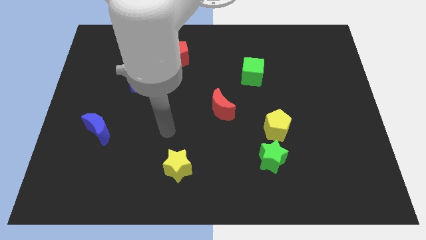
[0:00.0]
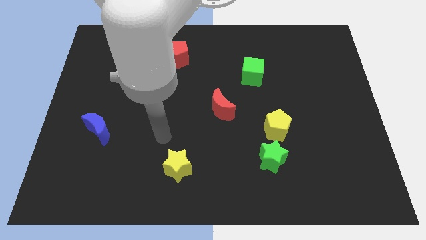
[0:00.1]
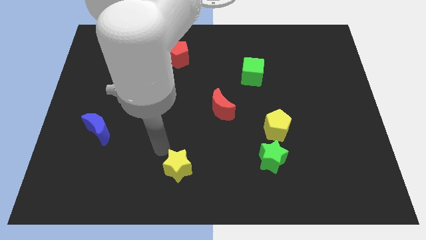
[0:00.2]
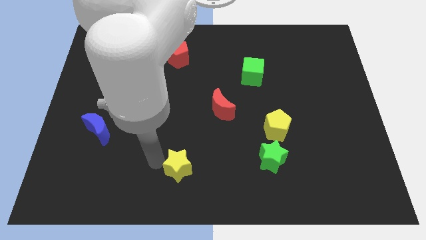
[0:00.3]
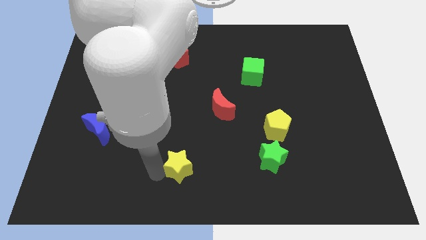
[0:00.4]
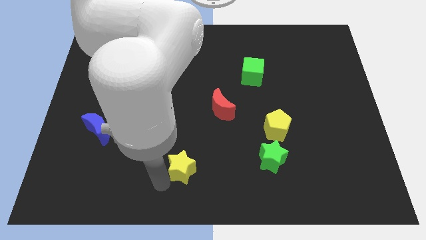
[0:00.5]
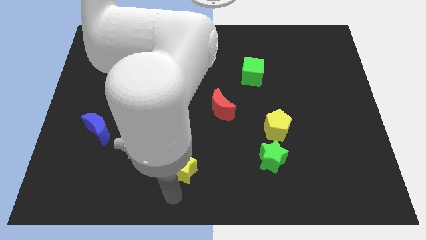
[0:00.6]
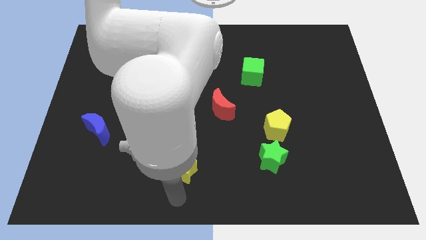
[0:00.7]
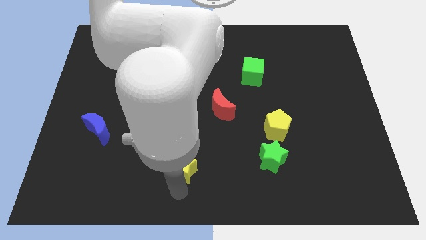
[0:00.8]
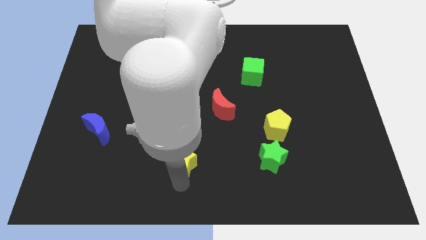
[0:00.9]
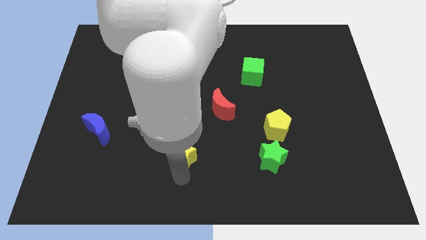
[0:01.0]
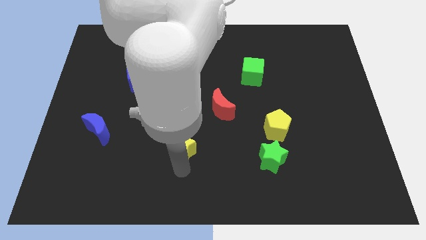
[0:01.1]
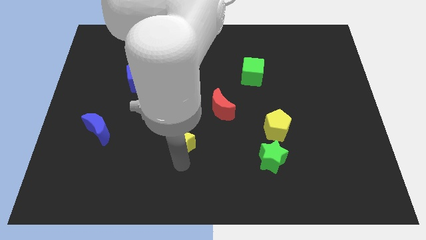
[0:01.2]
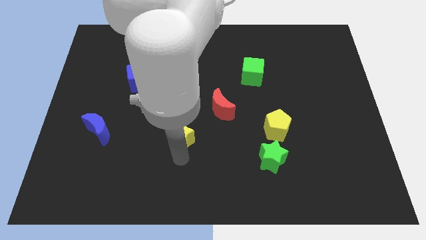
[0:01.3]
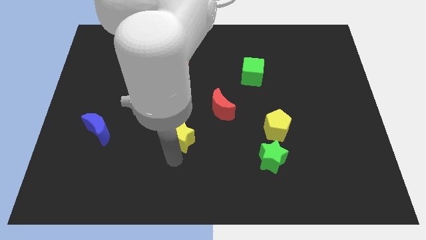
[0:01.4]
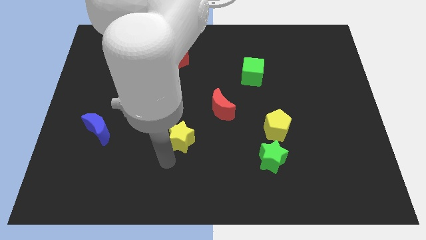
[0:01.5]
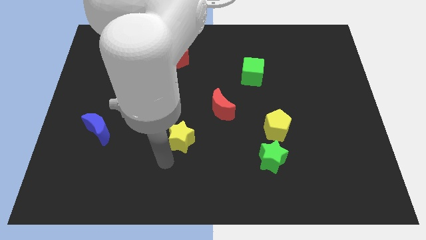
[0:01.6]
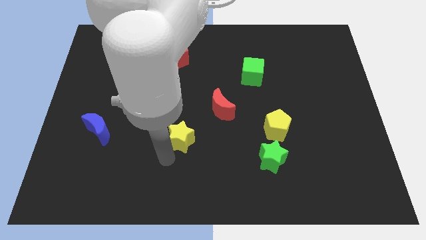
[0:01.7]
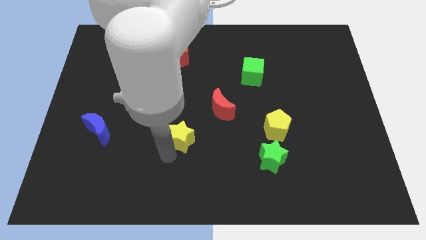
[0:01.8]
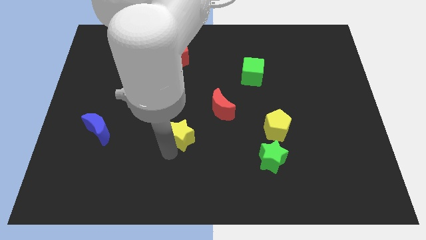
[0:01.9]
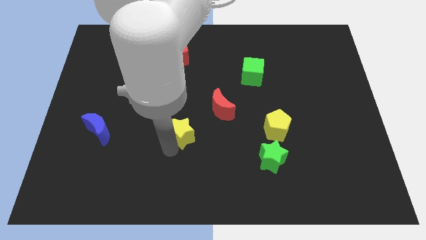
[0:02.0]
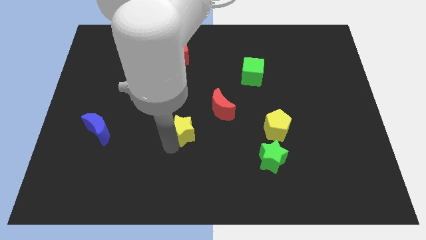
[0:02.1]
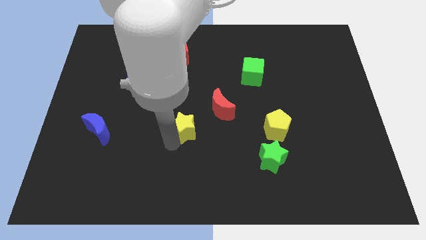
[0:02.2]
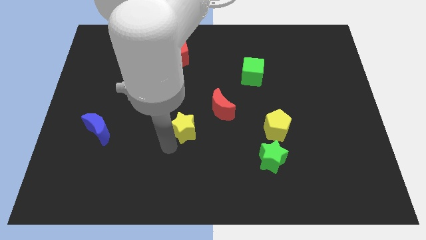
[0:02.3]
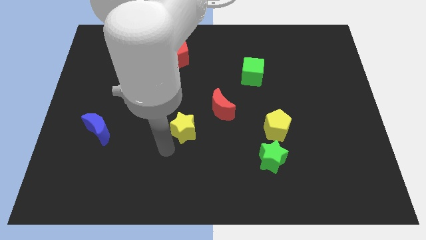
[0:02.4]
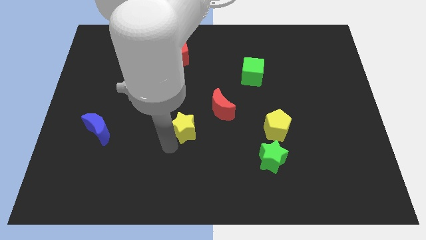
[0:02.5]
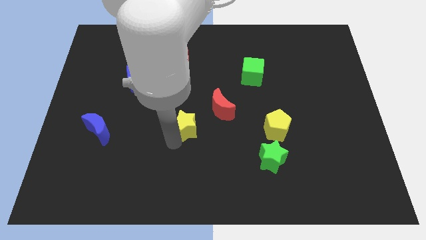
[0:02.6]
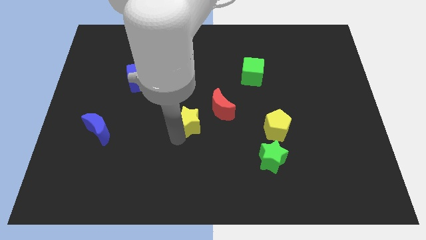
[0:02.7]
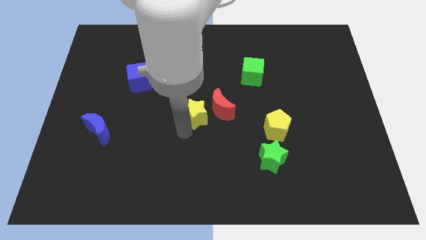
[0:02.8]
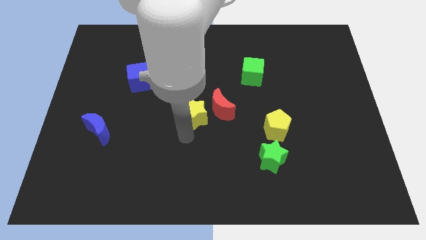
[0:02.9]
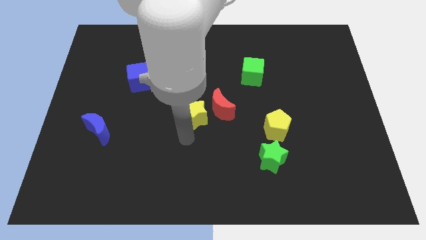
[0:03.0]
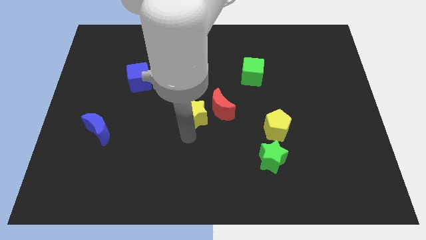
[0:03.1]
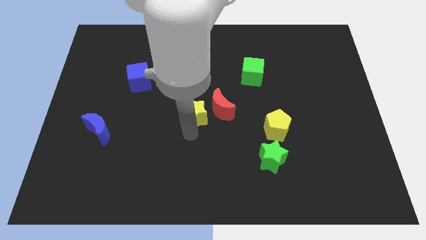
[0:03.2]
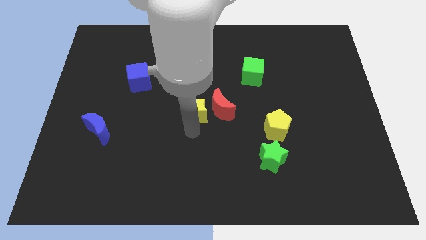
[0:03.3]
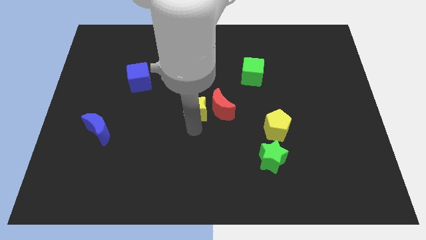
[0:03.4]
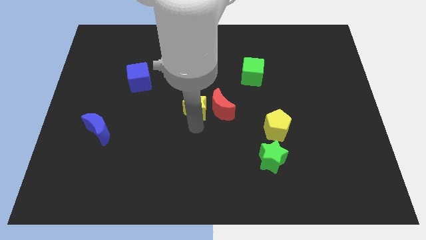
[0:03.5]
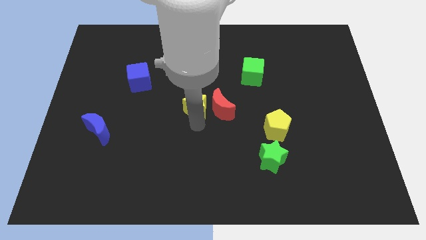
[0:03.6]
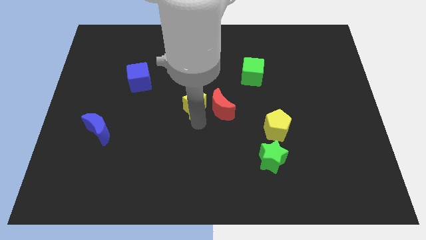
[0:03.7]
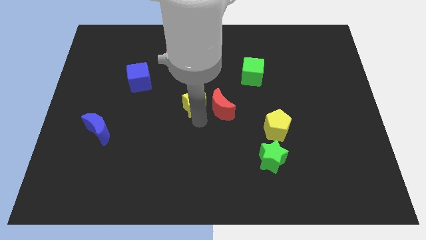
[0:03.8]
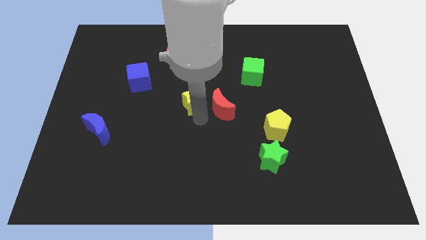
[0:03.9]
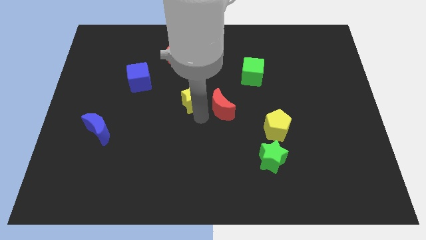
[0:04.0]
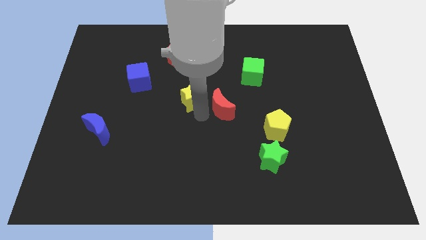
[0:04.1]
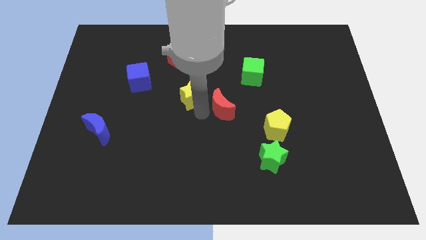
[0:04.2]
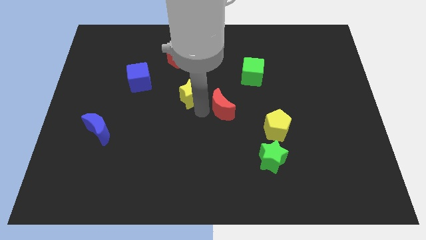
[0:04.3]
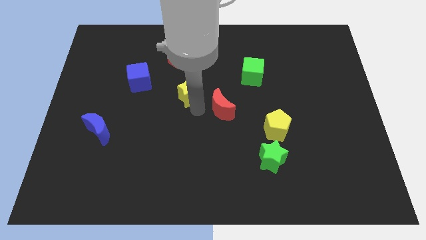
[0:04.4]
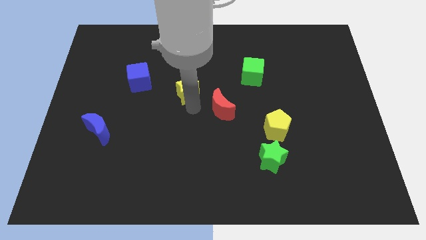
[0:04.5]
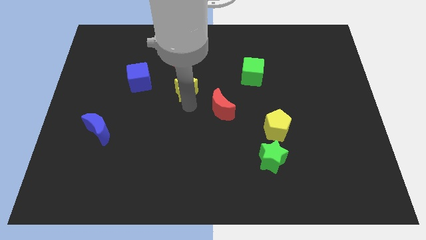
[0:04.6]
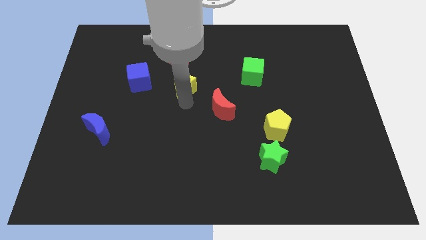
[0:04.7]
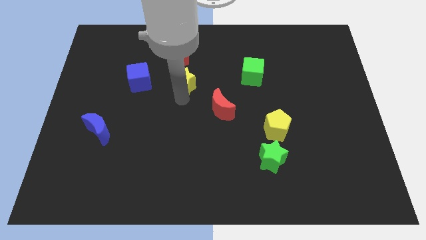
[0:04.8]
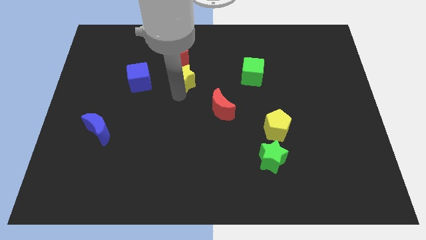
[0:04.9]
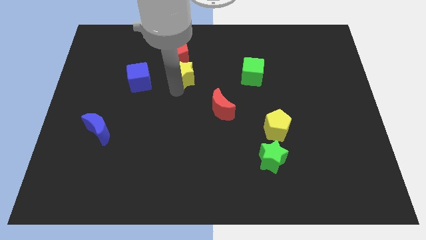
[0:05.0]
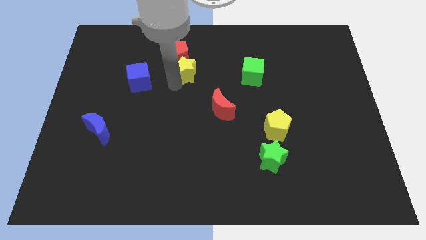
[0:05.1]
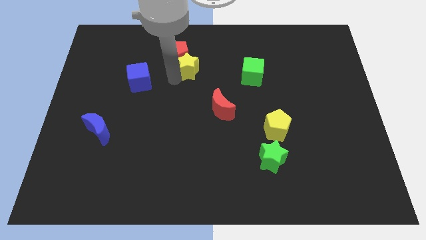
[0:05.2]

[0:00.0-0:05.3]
push the yellow star just left of the green cube

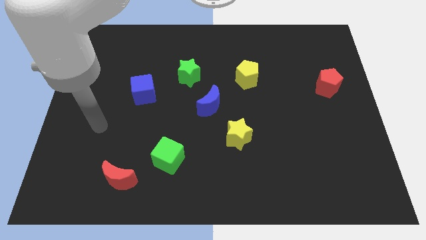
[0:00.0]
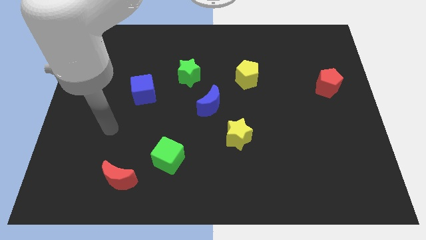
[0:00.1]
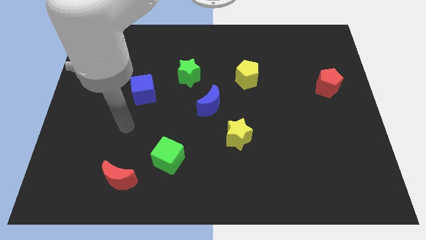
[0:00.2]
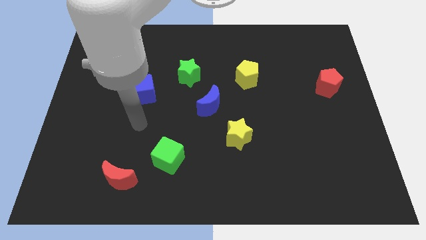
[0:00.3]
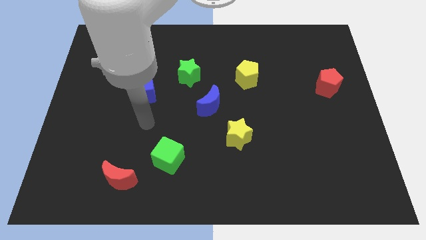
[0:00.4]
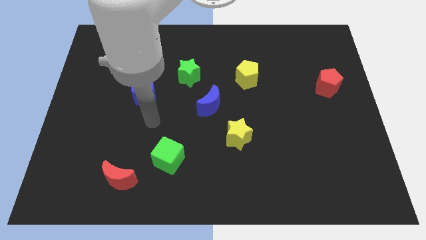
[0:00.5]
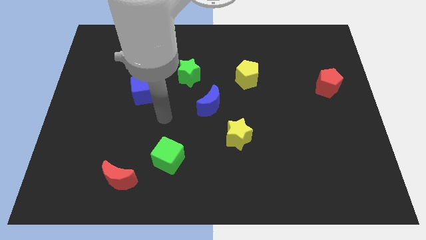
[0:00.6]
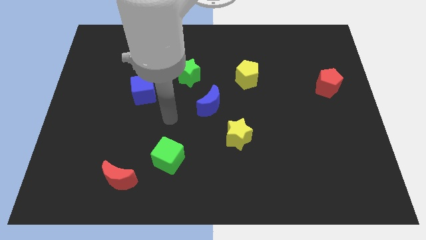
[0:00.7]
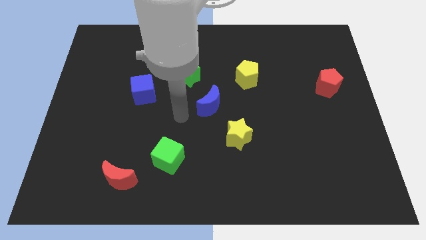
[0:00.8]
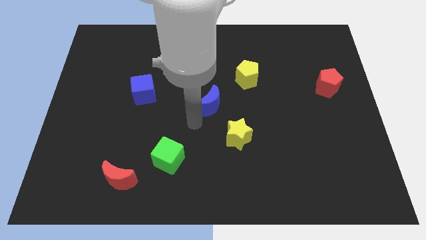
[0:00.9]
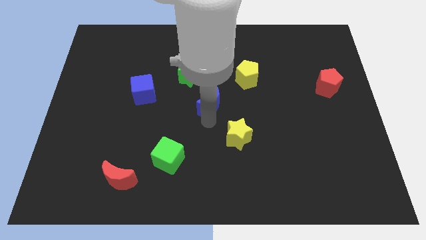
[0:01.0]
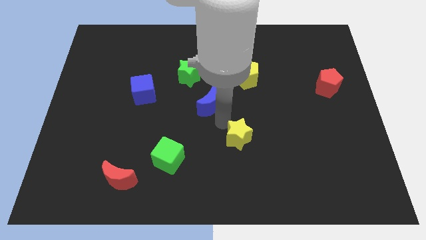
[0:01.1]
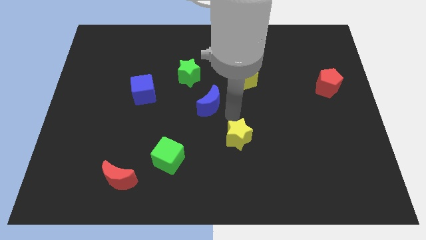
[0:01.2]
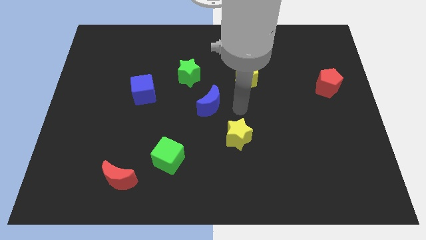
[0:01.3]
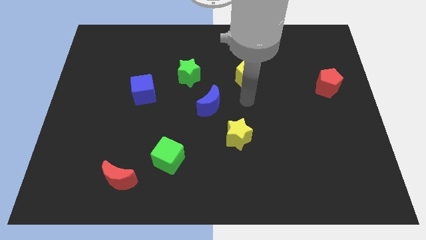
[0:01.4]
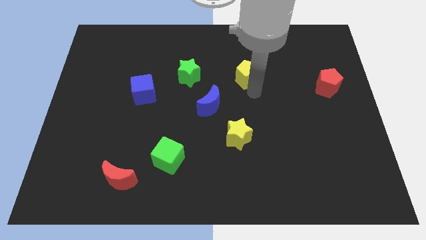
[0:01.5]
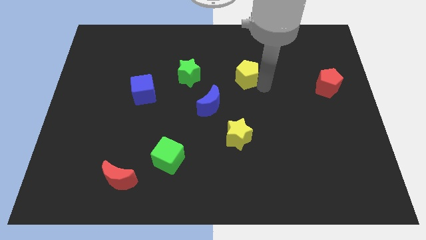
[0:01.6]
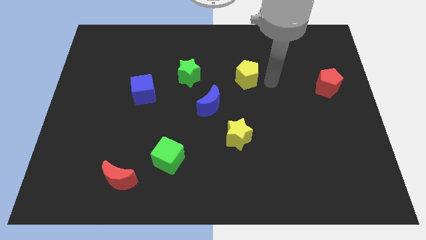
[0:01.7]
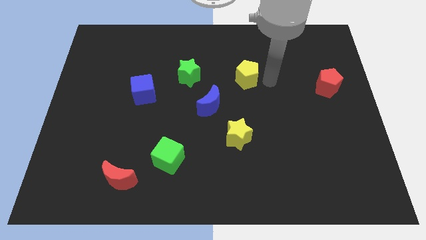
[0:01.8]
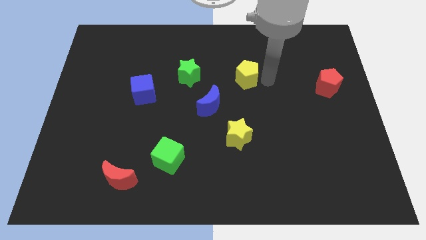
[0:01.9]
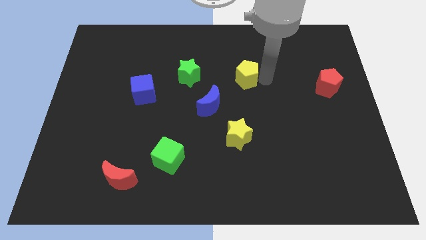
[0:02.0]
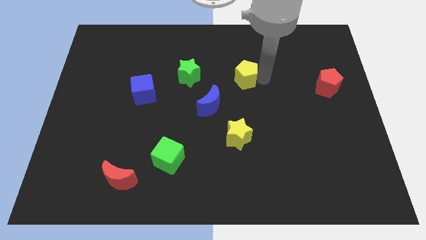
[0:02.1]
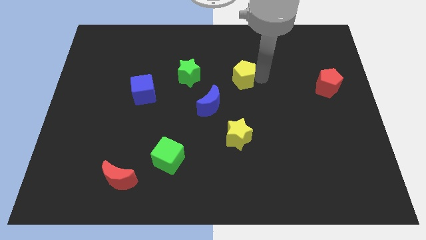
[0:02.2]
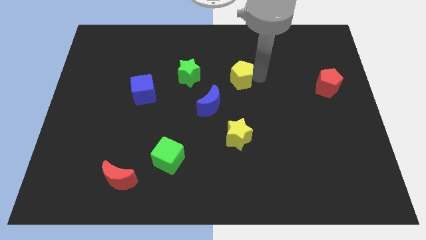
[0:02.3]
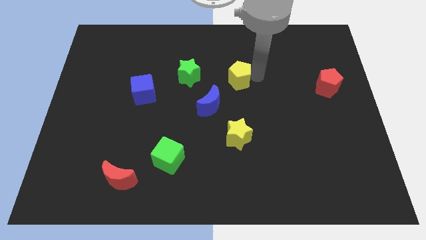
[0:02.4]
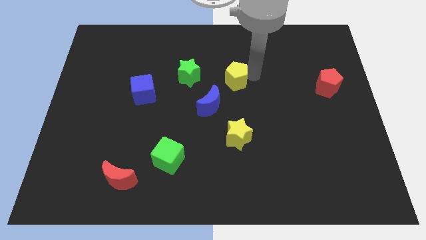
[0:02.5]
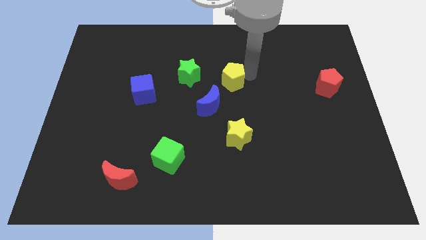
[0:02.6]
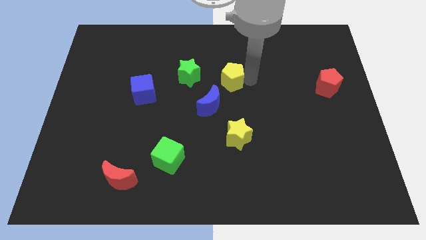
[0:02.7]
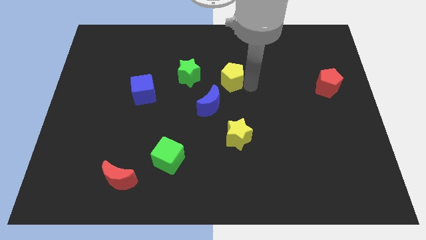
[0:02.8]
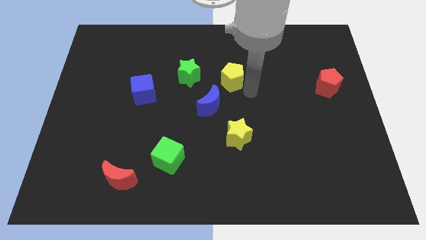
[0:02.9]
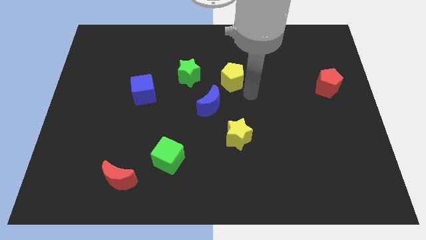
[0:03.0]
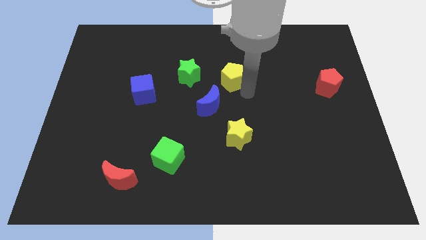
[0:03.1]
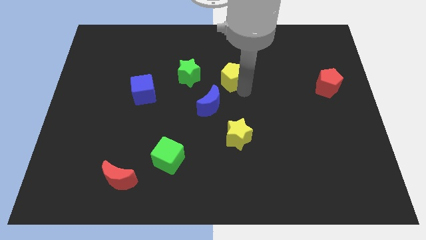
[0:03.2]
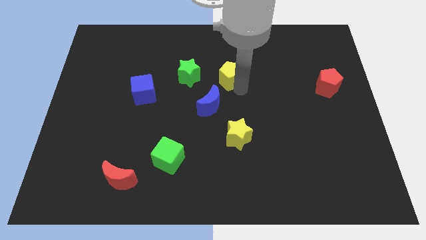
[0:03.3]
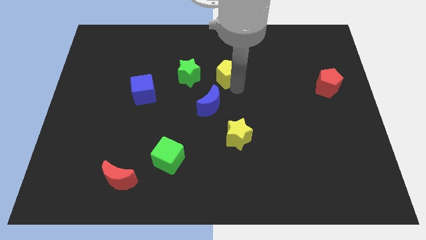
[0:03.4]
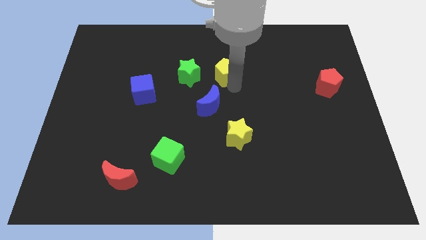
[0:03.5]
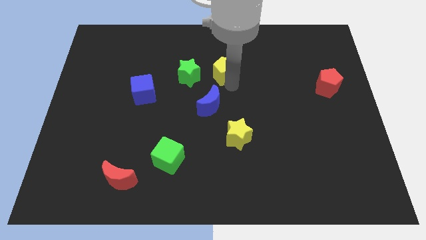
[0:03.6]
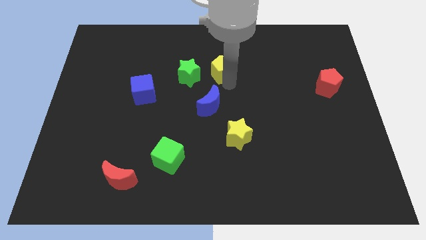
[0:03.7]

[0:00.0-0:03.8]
move the yellow pentagon to the top right of the green star
